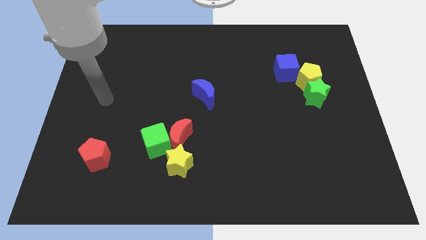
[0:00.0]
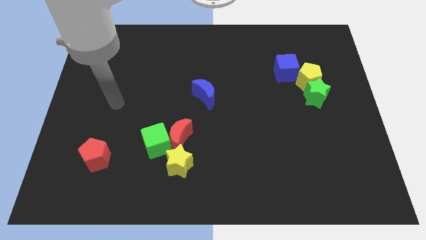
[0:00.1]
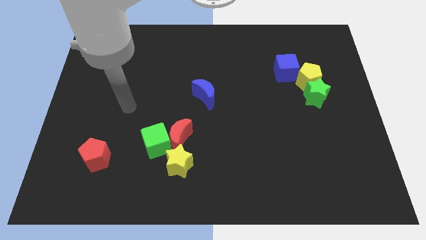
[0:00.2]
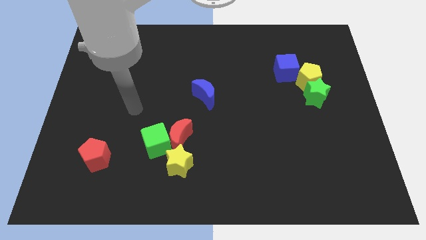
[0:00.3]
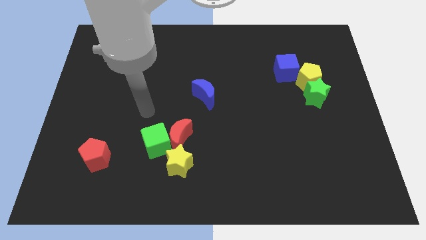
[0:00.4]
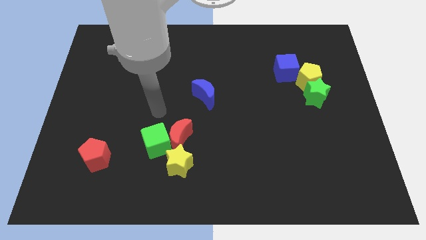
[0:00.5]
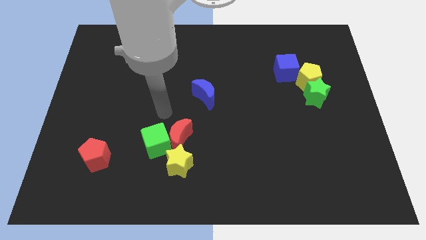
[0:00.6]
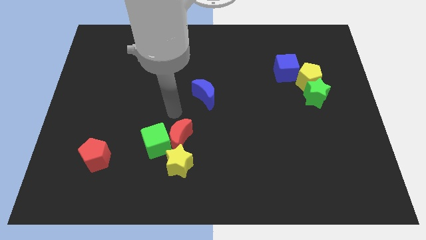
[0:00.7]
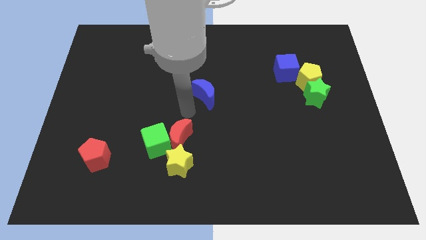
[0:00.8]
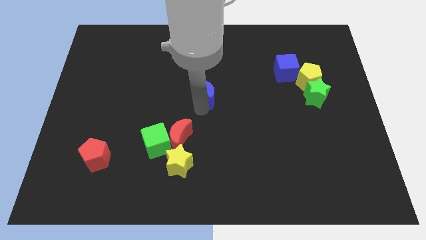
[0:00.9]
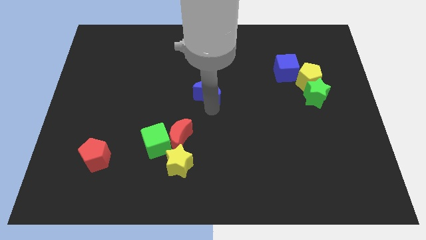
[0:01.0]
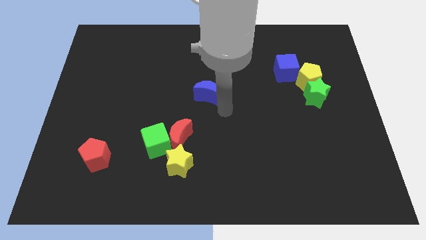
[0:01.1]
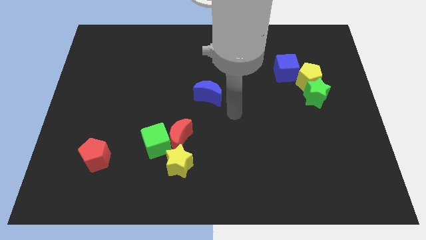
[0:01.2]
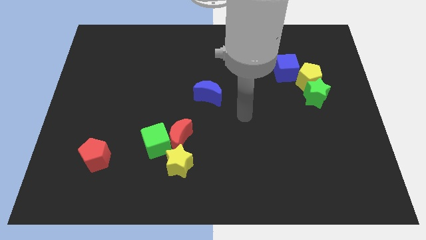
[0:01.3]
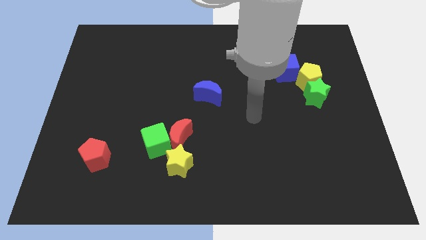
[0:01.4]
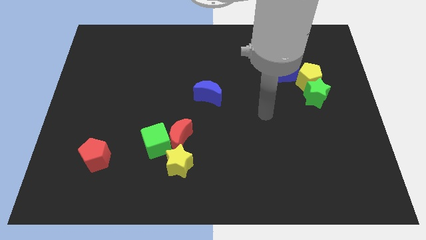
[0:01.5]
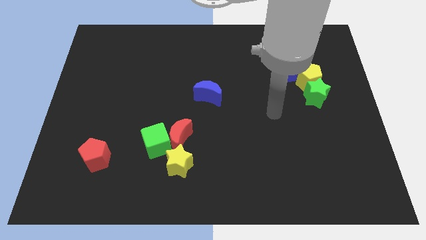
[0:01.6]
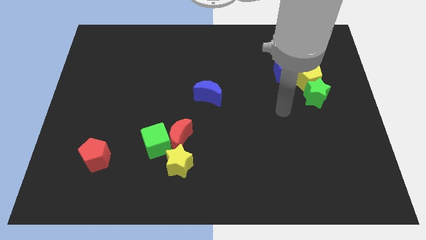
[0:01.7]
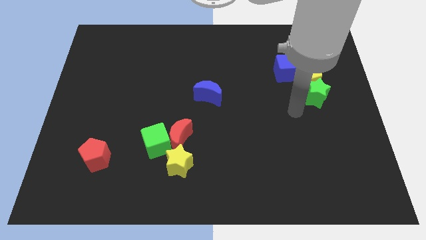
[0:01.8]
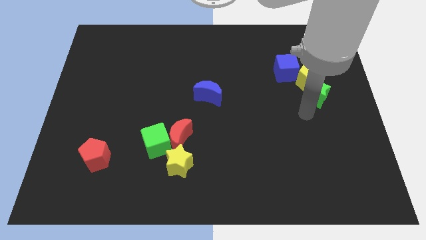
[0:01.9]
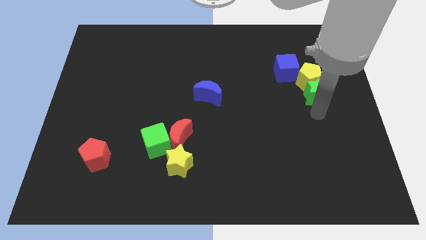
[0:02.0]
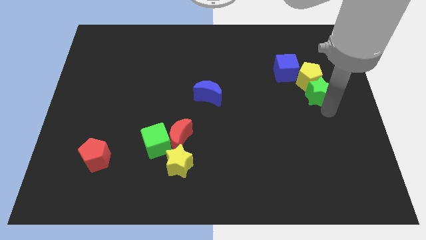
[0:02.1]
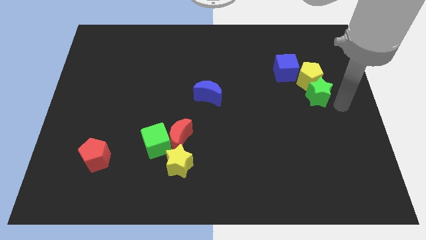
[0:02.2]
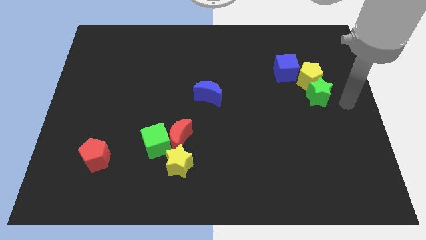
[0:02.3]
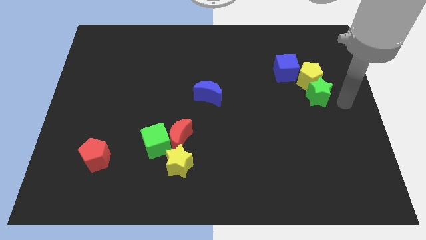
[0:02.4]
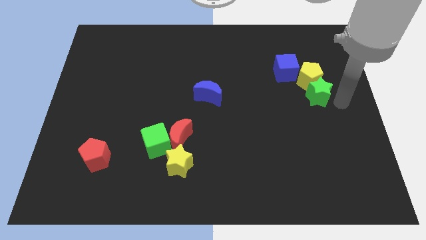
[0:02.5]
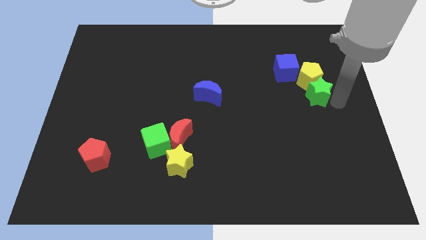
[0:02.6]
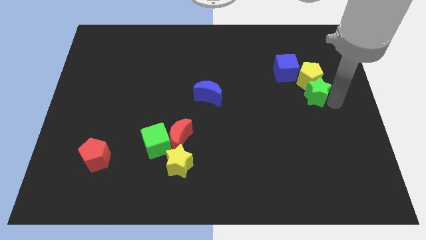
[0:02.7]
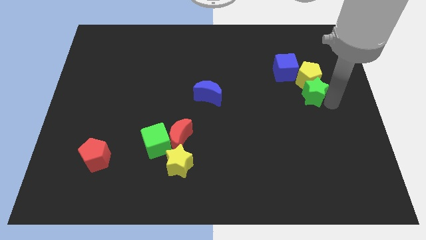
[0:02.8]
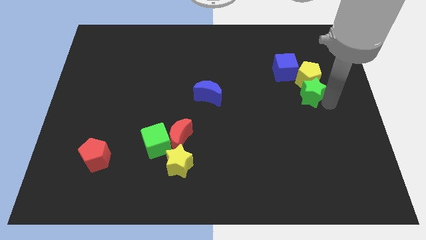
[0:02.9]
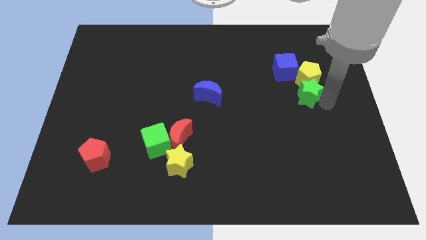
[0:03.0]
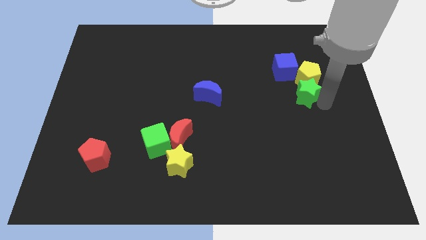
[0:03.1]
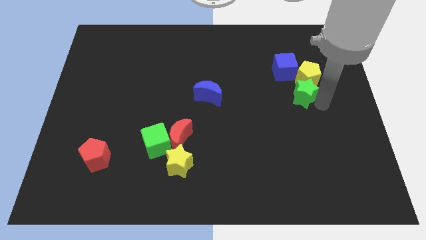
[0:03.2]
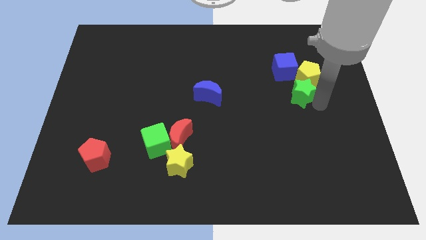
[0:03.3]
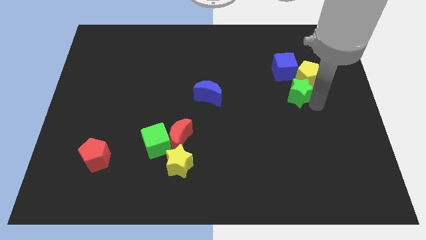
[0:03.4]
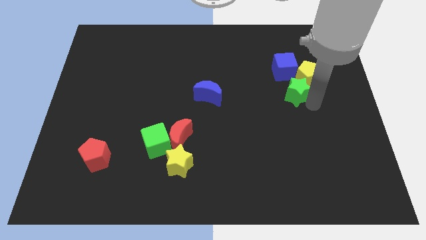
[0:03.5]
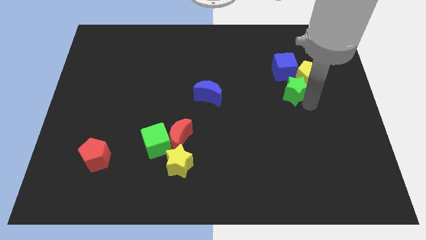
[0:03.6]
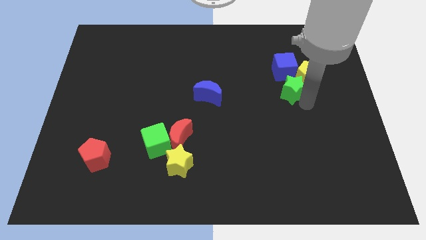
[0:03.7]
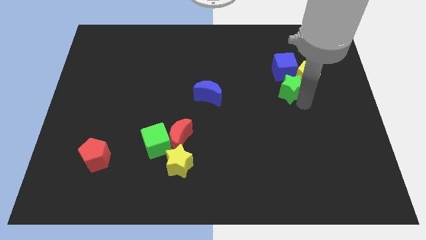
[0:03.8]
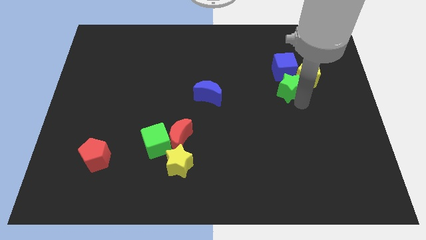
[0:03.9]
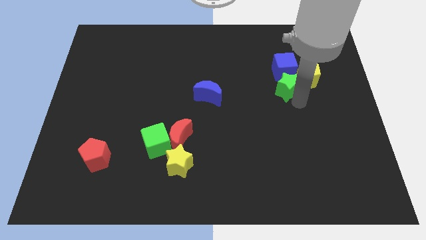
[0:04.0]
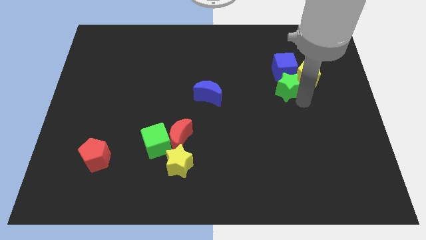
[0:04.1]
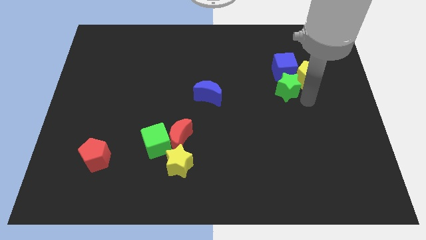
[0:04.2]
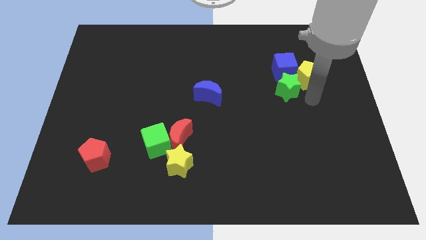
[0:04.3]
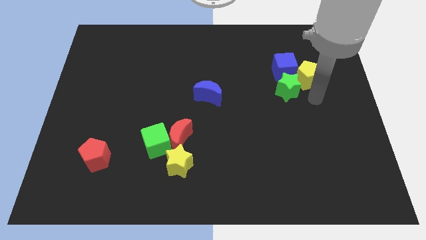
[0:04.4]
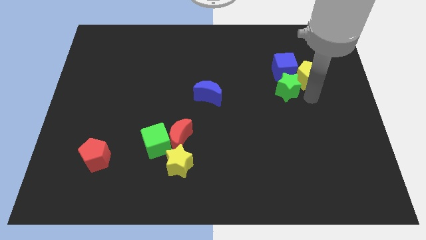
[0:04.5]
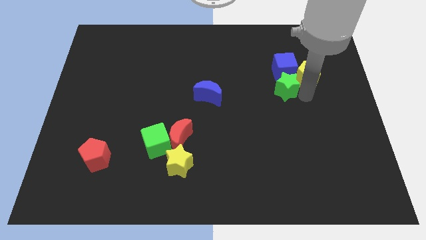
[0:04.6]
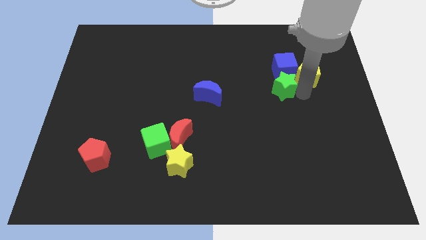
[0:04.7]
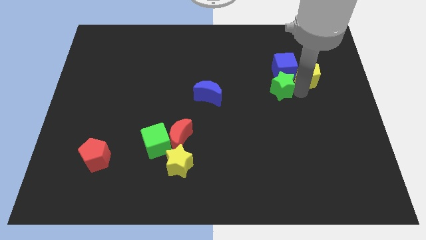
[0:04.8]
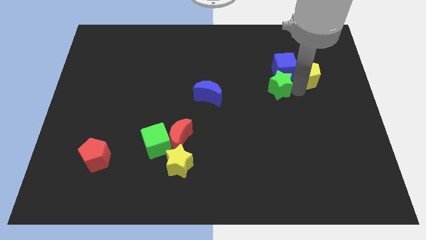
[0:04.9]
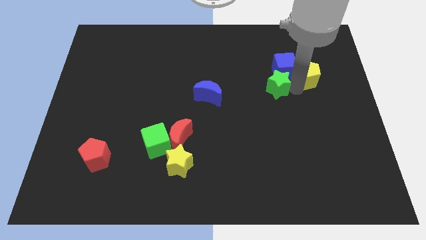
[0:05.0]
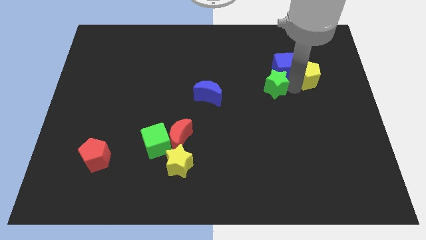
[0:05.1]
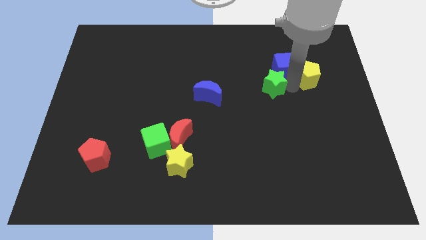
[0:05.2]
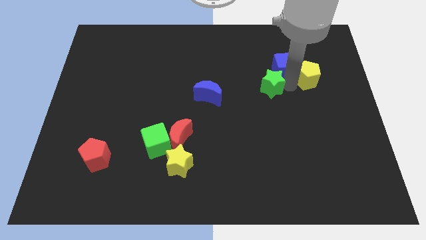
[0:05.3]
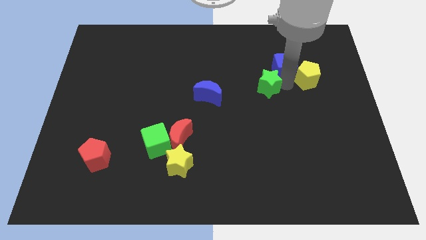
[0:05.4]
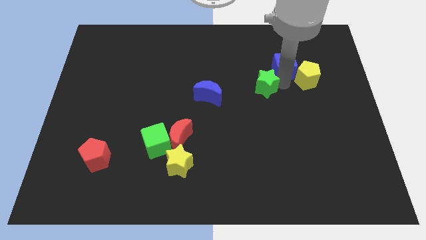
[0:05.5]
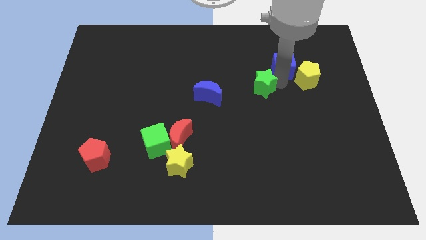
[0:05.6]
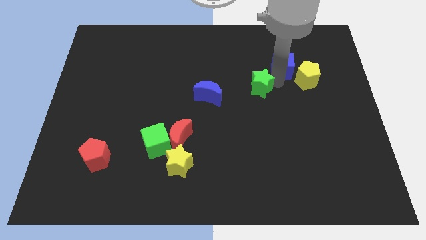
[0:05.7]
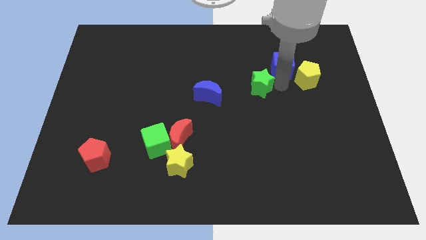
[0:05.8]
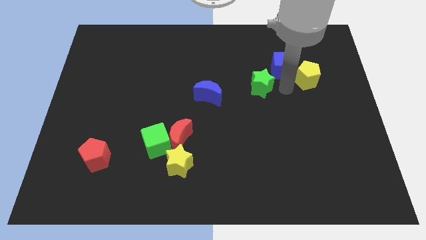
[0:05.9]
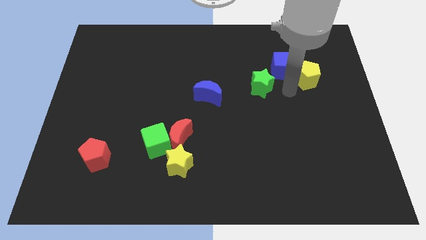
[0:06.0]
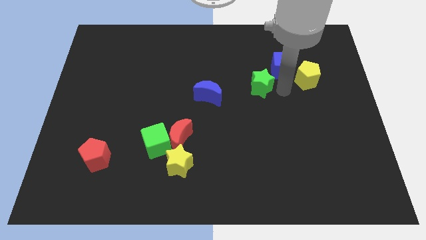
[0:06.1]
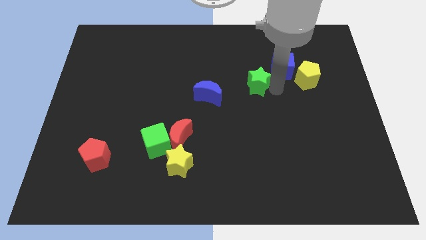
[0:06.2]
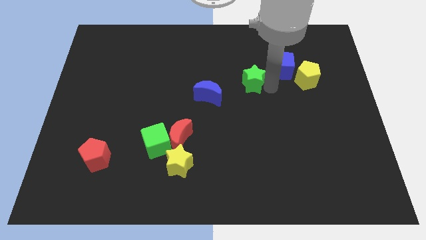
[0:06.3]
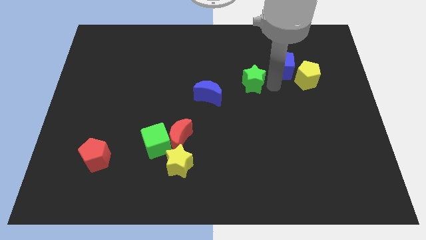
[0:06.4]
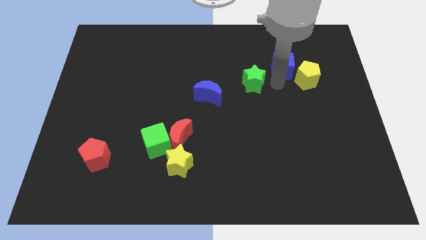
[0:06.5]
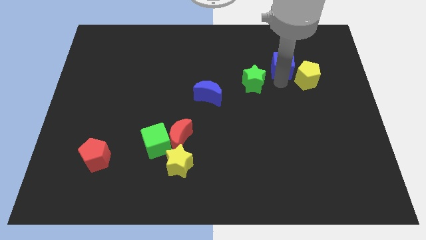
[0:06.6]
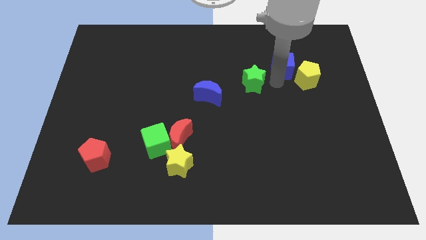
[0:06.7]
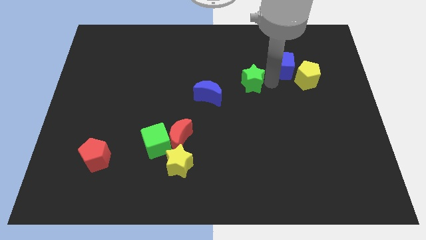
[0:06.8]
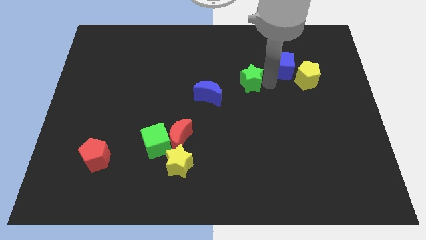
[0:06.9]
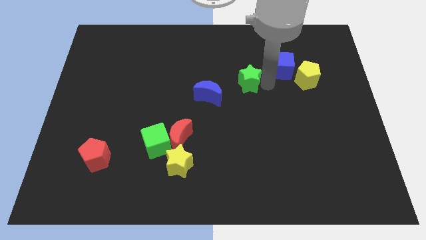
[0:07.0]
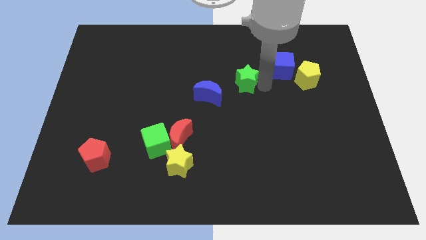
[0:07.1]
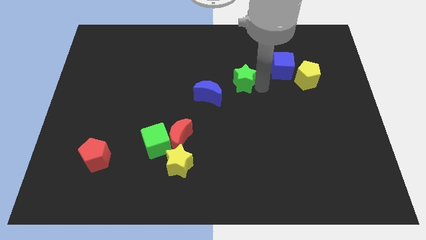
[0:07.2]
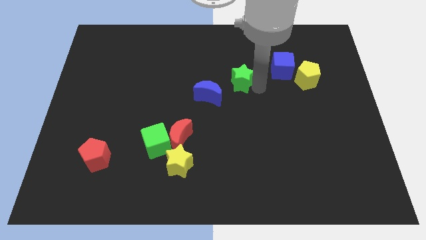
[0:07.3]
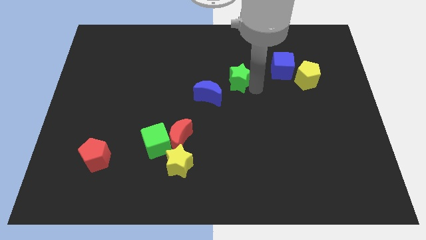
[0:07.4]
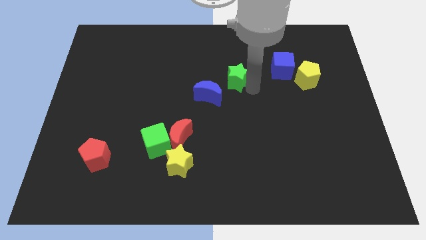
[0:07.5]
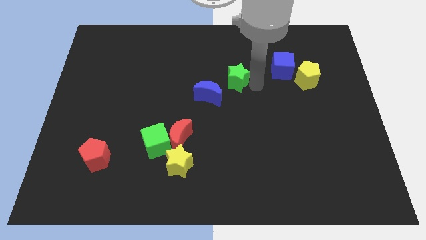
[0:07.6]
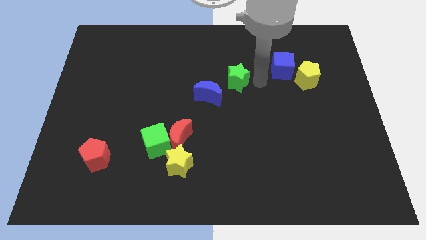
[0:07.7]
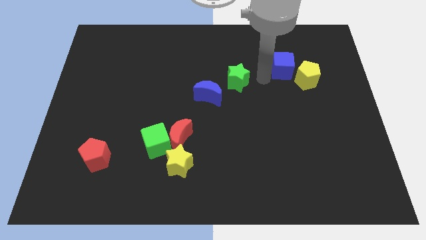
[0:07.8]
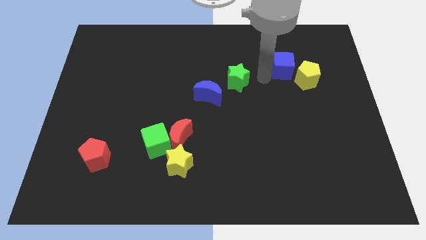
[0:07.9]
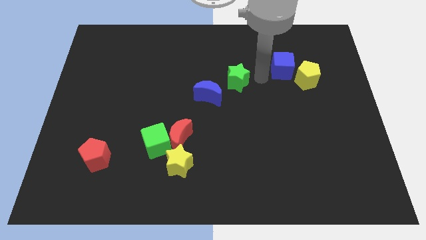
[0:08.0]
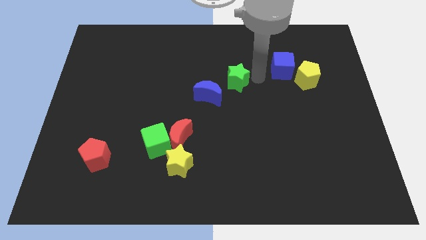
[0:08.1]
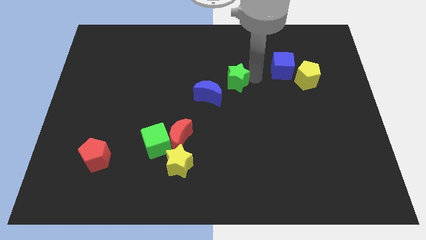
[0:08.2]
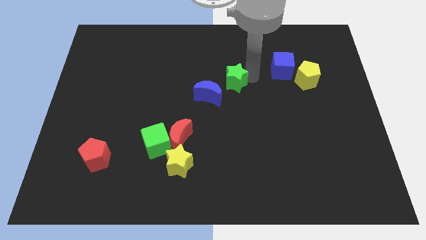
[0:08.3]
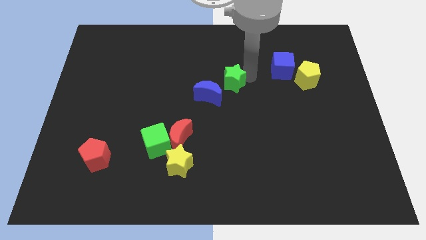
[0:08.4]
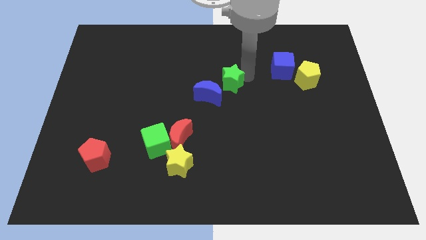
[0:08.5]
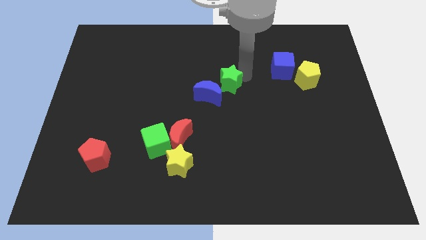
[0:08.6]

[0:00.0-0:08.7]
move the green star to the left
